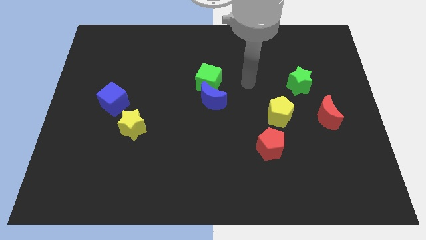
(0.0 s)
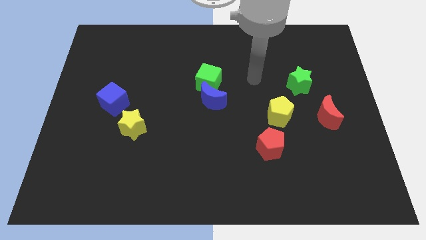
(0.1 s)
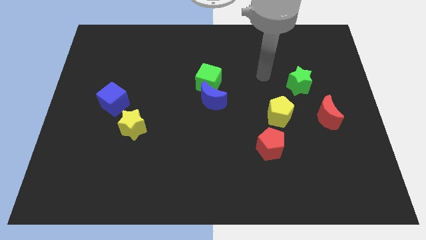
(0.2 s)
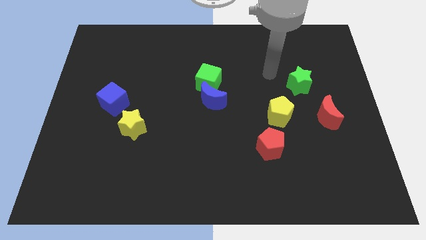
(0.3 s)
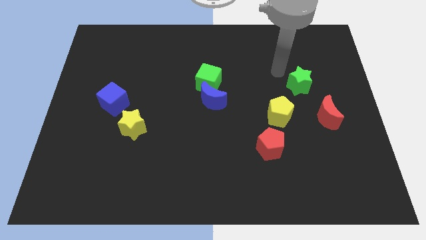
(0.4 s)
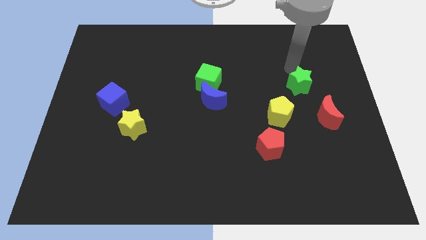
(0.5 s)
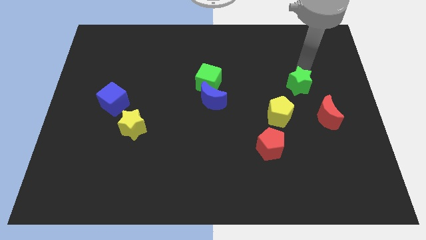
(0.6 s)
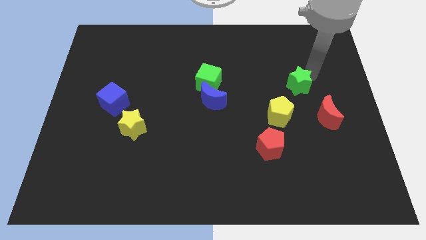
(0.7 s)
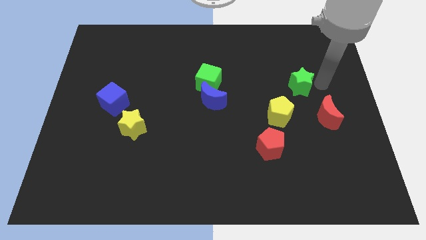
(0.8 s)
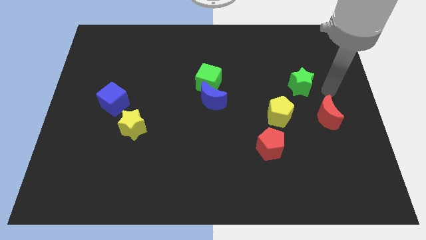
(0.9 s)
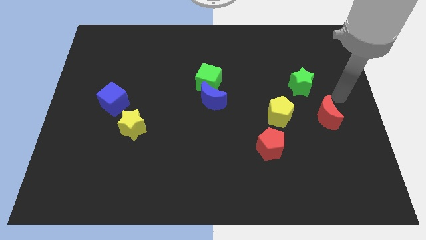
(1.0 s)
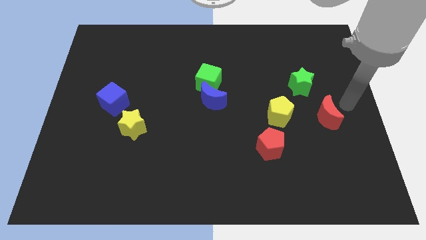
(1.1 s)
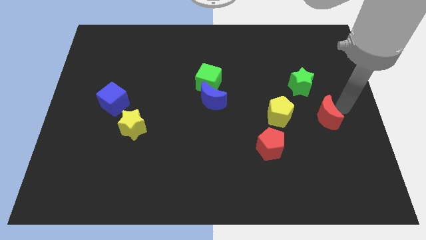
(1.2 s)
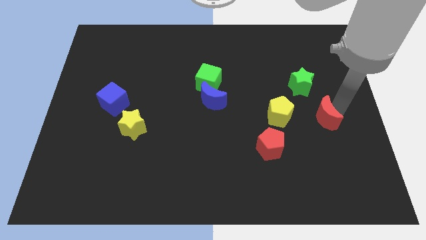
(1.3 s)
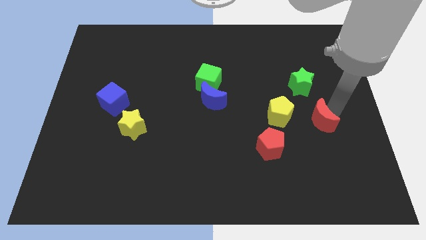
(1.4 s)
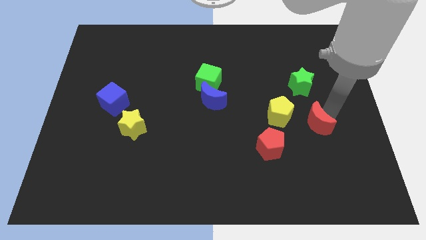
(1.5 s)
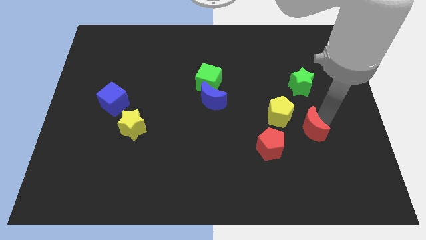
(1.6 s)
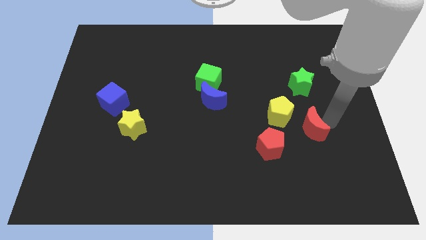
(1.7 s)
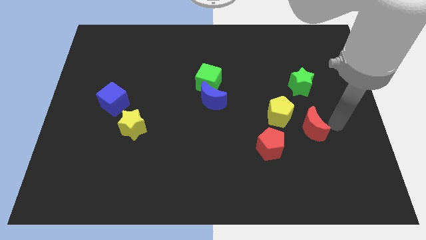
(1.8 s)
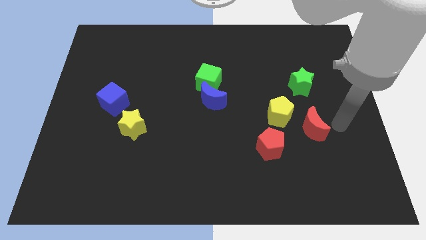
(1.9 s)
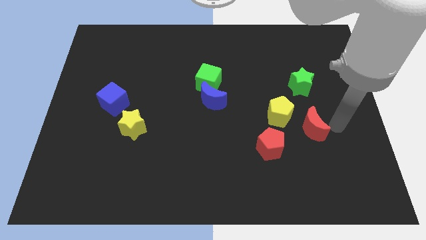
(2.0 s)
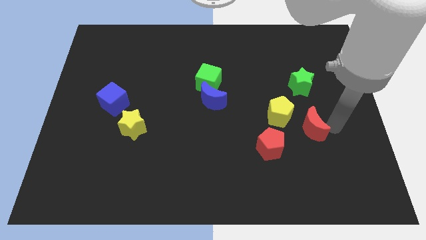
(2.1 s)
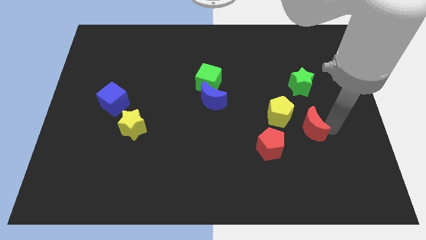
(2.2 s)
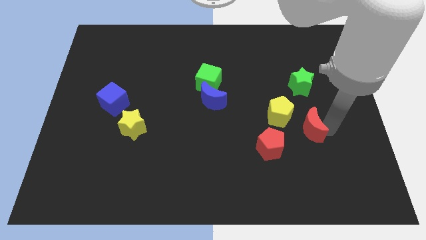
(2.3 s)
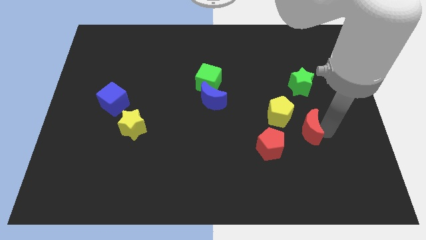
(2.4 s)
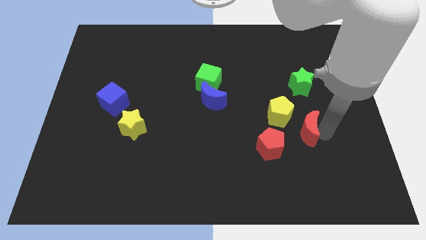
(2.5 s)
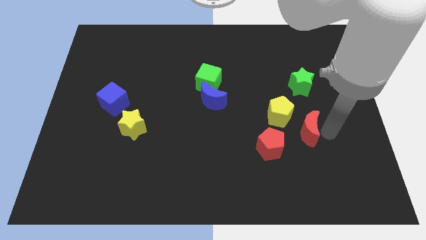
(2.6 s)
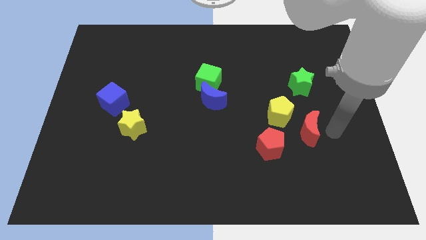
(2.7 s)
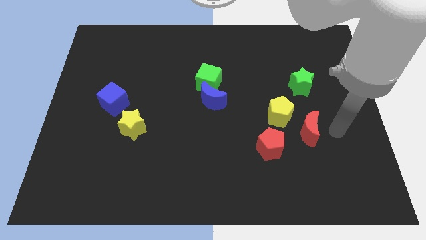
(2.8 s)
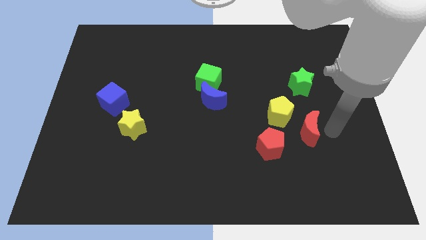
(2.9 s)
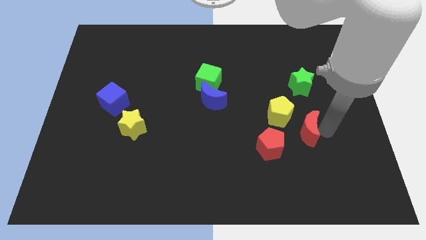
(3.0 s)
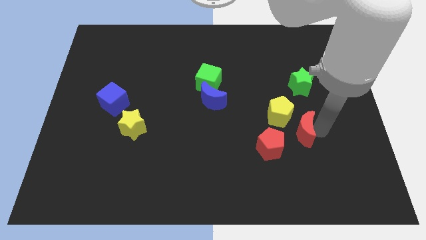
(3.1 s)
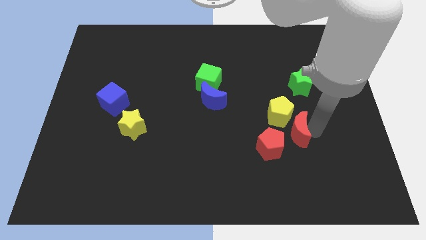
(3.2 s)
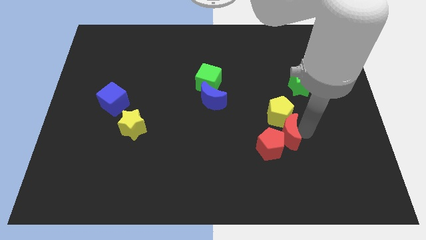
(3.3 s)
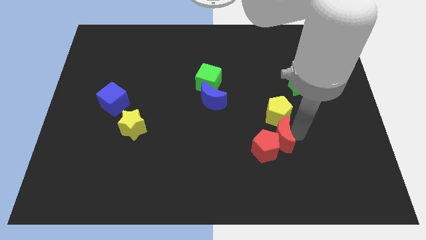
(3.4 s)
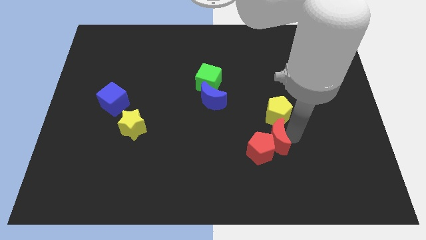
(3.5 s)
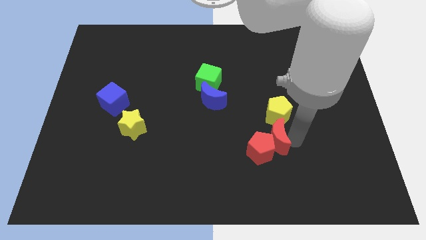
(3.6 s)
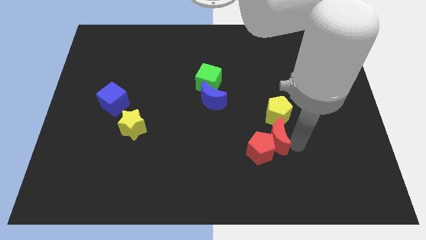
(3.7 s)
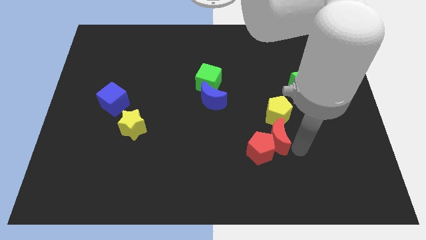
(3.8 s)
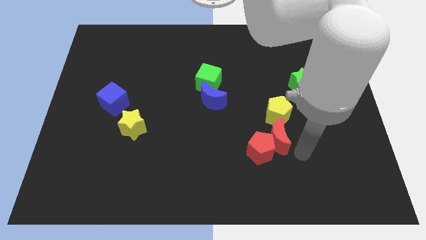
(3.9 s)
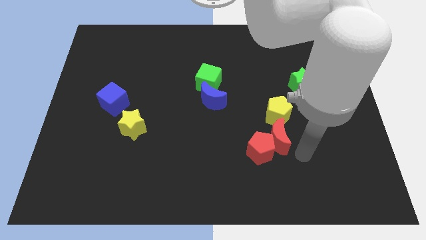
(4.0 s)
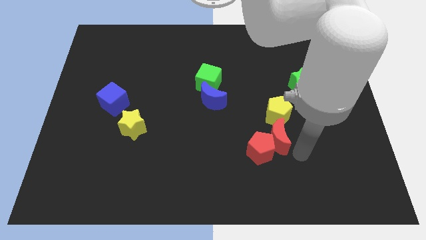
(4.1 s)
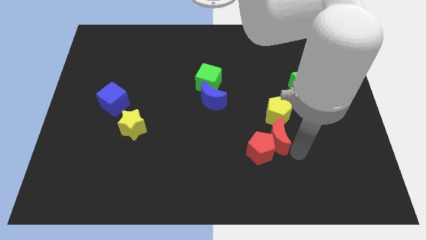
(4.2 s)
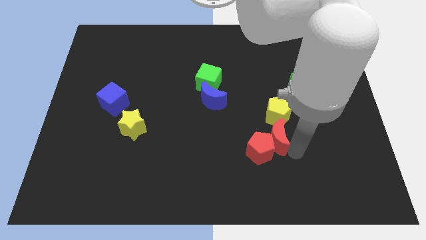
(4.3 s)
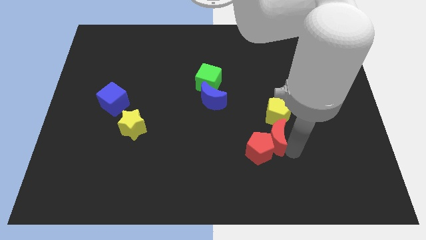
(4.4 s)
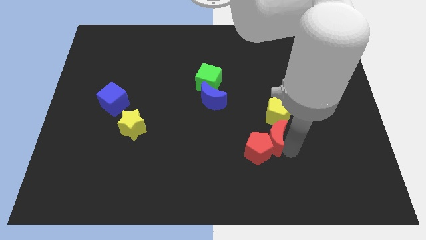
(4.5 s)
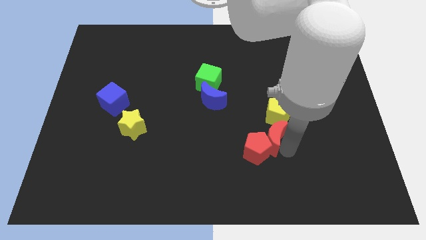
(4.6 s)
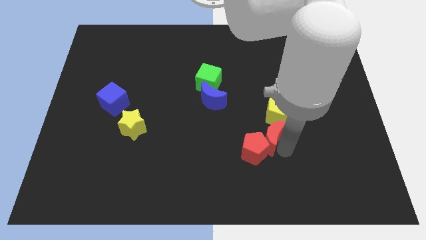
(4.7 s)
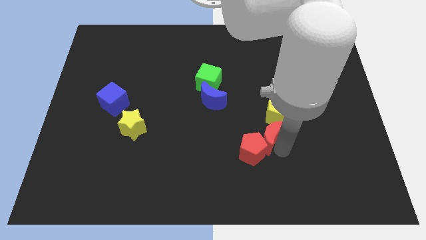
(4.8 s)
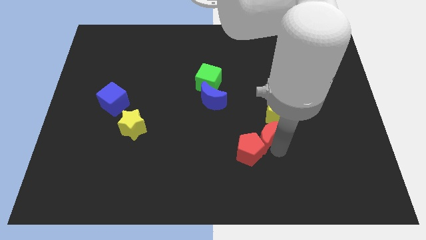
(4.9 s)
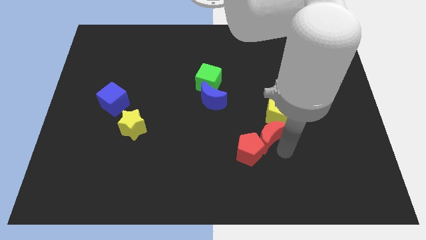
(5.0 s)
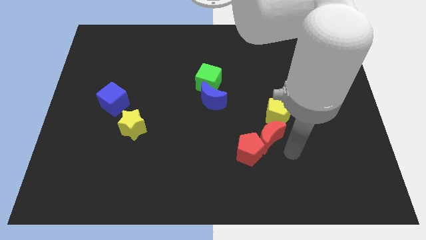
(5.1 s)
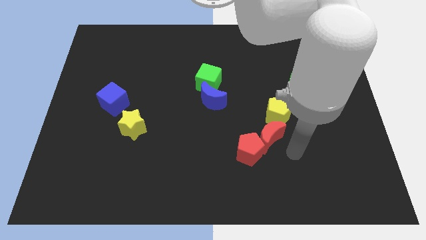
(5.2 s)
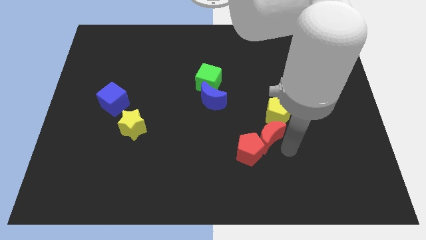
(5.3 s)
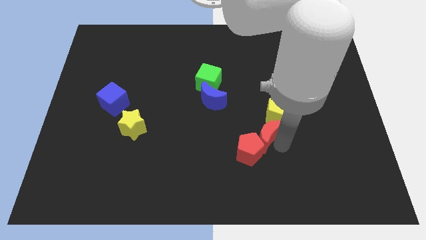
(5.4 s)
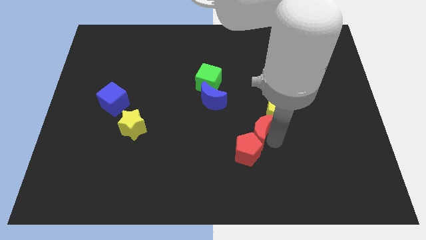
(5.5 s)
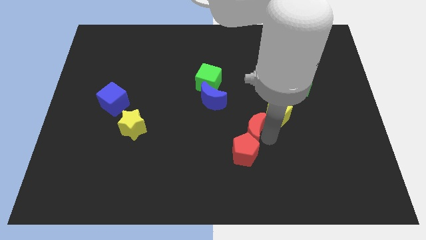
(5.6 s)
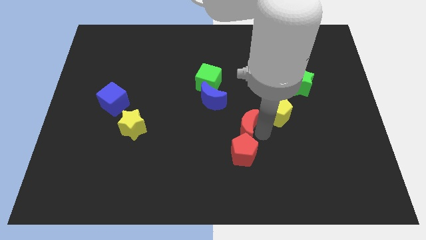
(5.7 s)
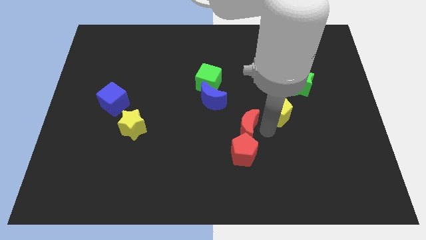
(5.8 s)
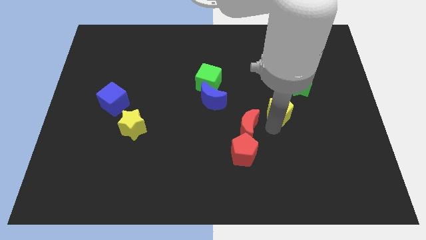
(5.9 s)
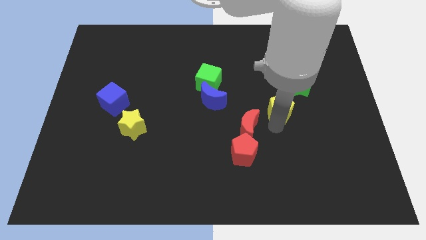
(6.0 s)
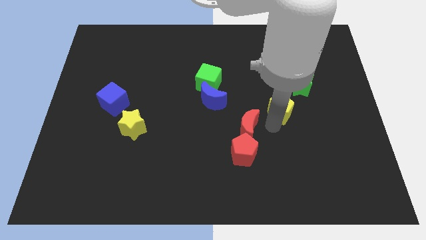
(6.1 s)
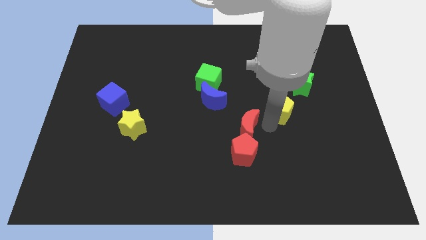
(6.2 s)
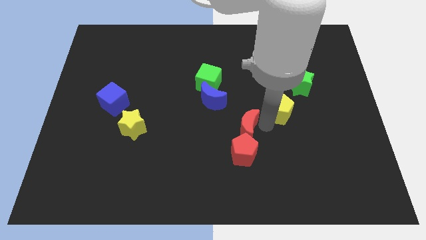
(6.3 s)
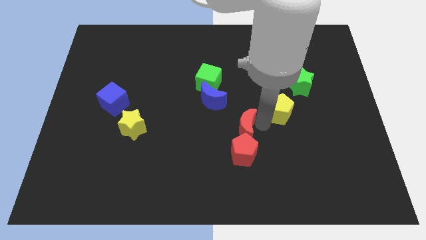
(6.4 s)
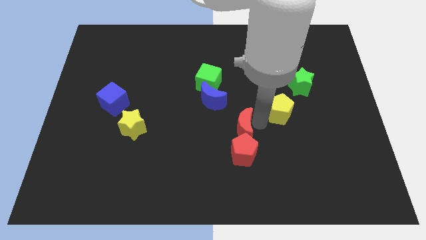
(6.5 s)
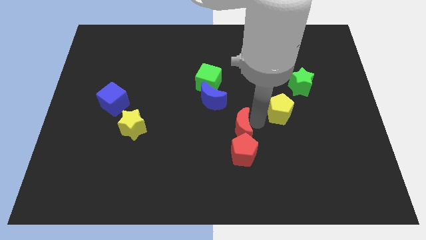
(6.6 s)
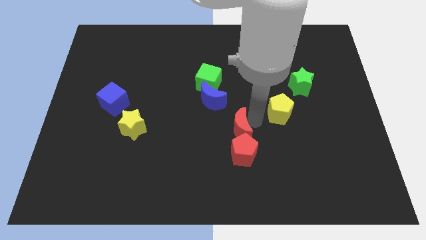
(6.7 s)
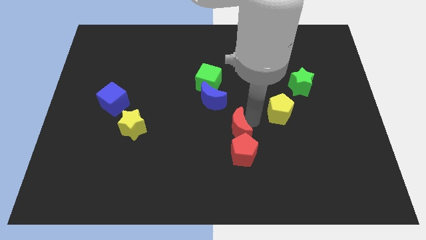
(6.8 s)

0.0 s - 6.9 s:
move the red moon left

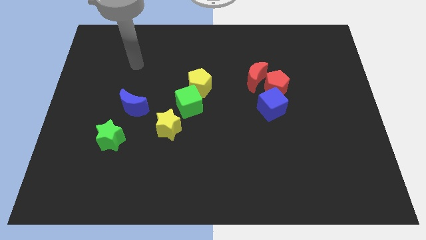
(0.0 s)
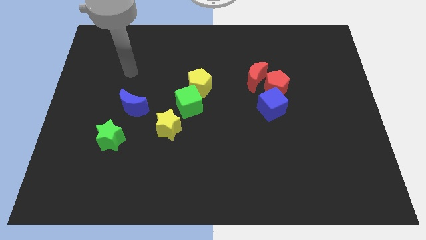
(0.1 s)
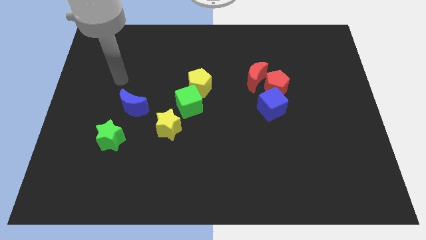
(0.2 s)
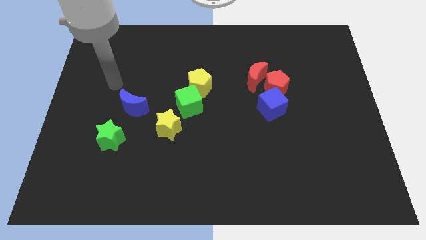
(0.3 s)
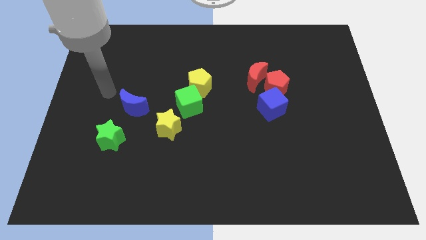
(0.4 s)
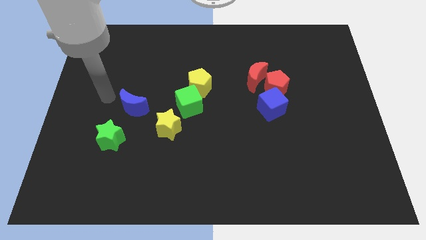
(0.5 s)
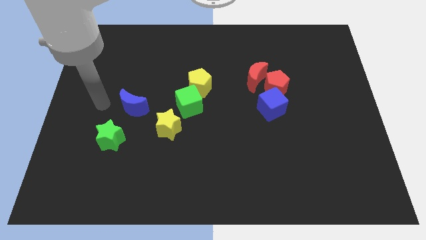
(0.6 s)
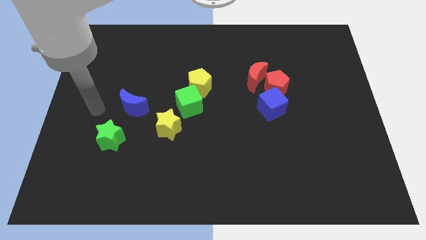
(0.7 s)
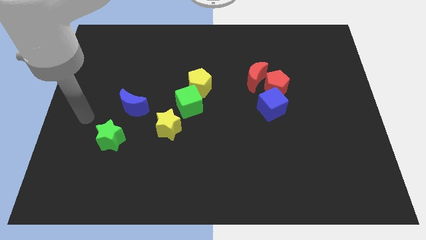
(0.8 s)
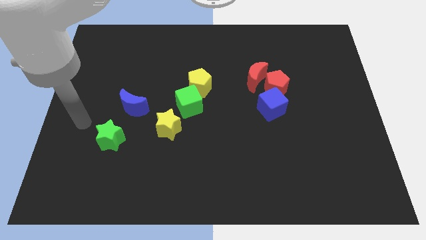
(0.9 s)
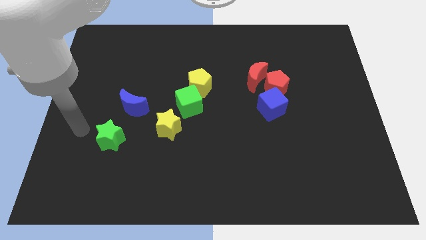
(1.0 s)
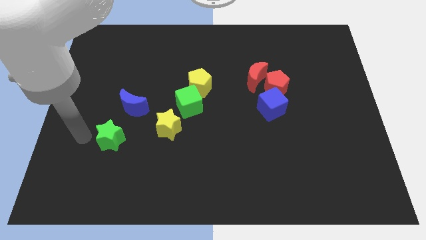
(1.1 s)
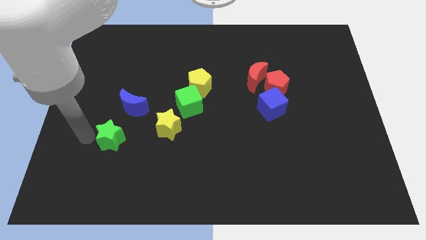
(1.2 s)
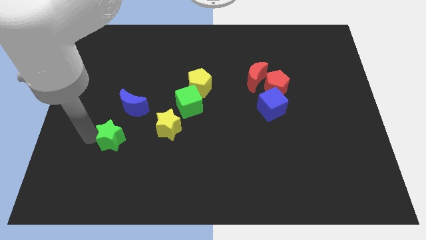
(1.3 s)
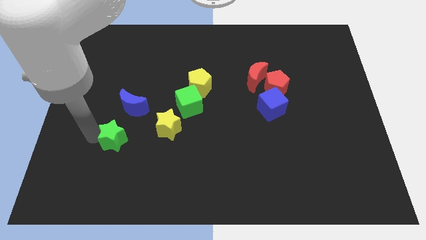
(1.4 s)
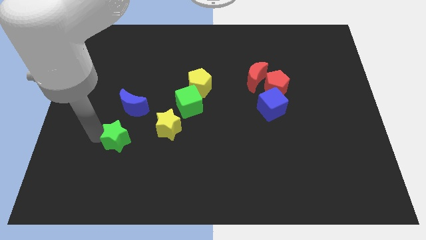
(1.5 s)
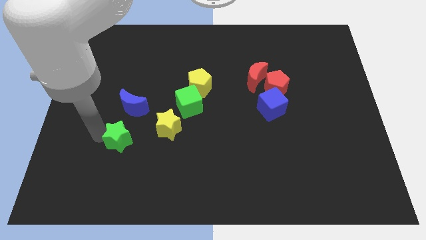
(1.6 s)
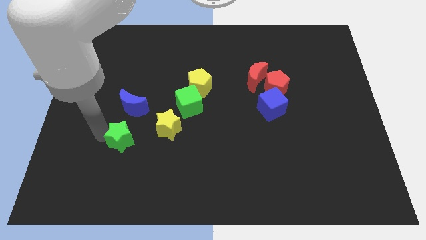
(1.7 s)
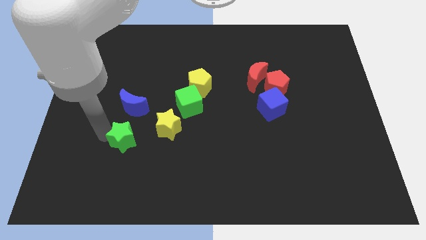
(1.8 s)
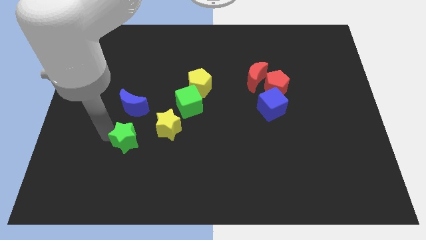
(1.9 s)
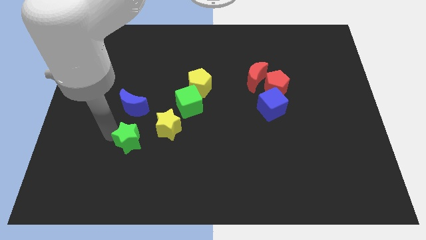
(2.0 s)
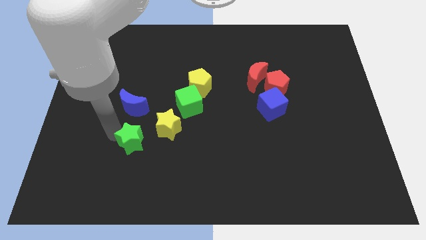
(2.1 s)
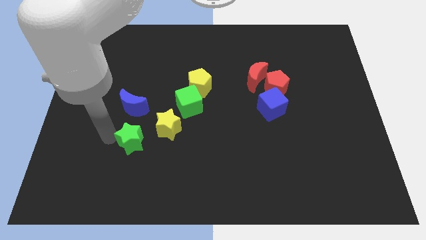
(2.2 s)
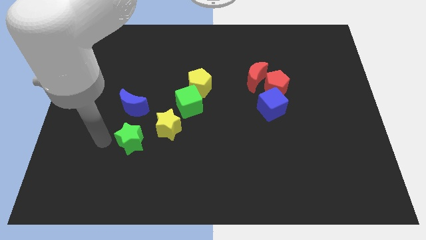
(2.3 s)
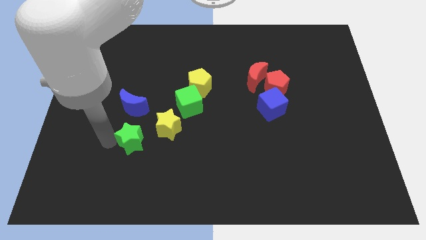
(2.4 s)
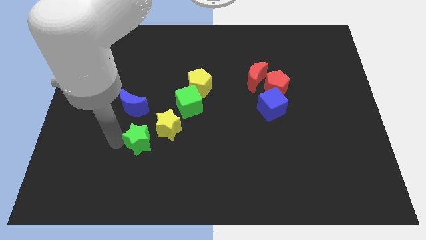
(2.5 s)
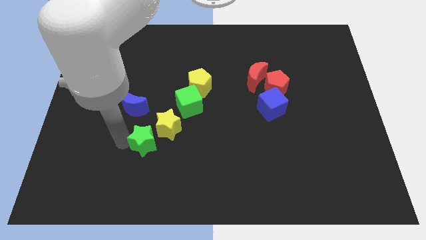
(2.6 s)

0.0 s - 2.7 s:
push the green star right a little
